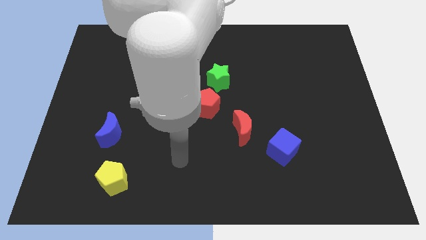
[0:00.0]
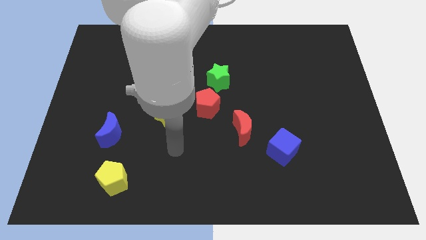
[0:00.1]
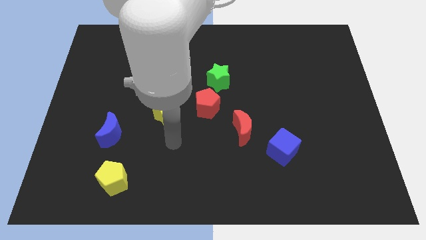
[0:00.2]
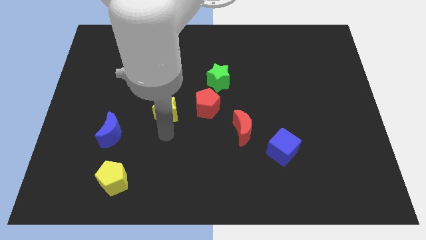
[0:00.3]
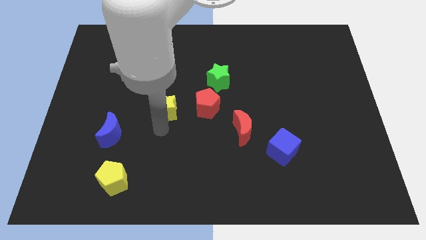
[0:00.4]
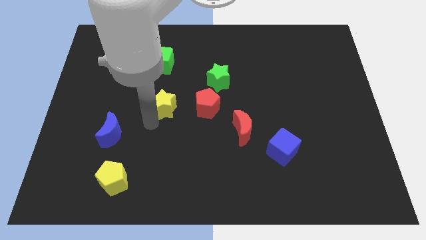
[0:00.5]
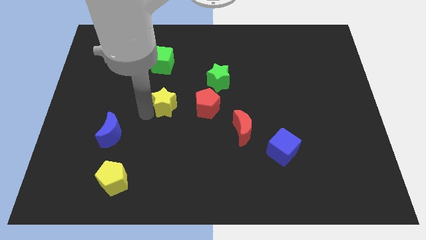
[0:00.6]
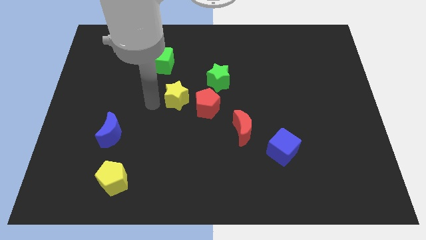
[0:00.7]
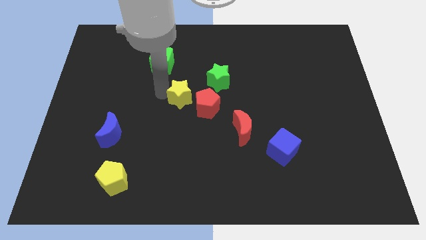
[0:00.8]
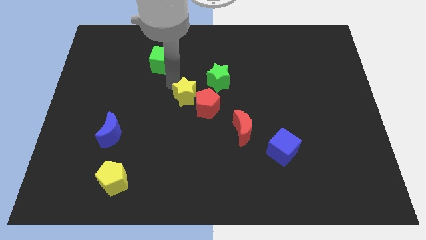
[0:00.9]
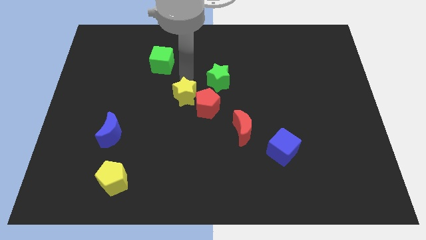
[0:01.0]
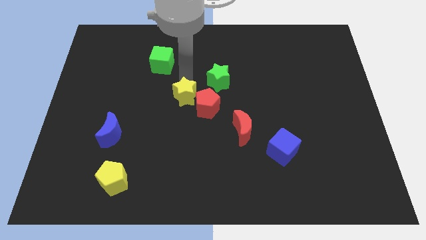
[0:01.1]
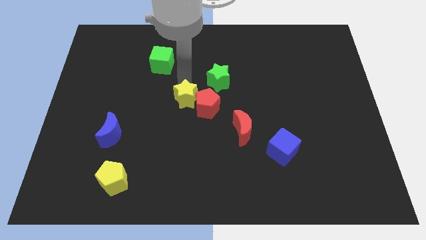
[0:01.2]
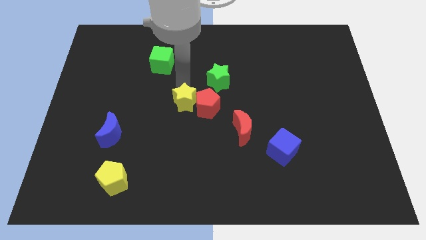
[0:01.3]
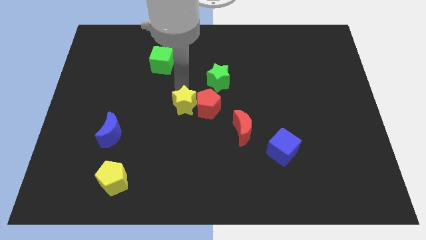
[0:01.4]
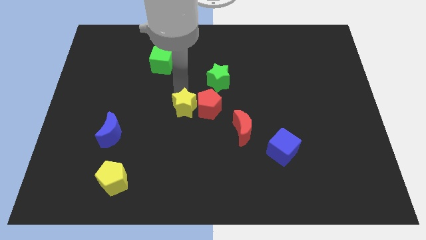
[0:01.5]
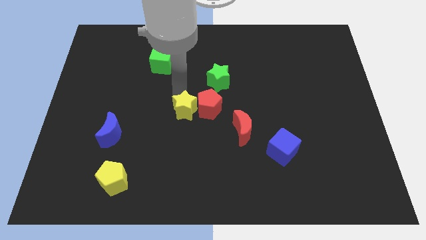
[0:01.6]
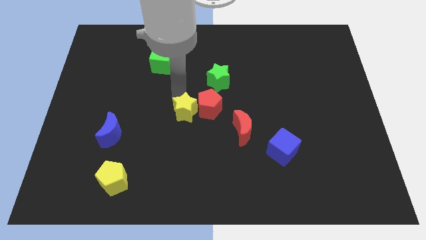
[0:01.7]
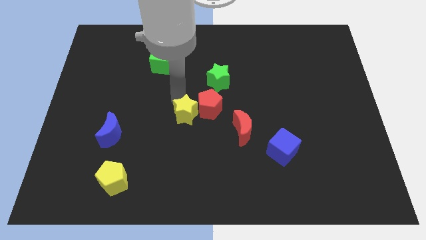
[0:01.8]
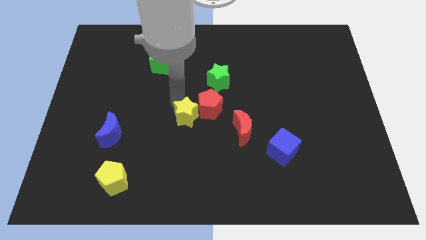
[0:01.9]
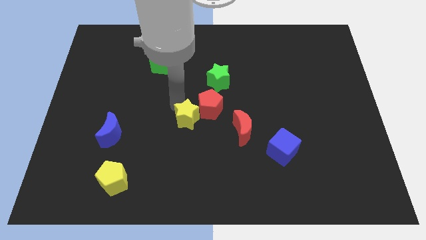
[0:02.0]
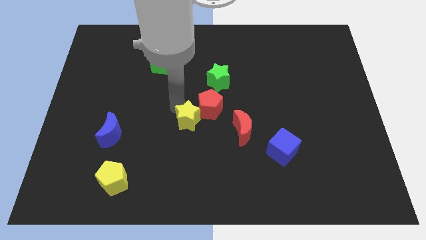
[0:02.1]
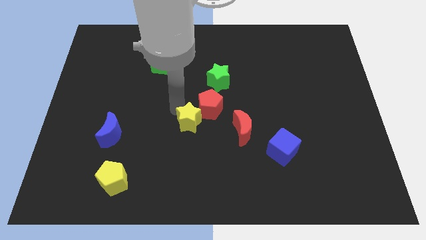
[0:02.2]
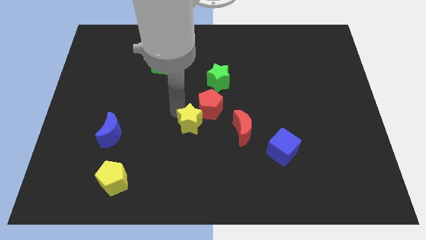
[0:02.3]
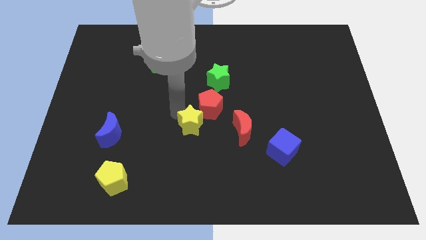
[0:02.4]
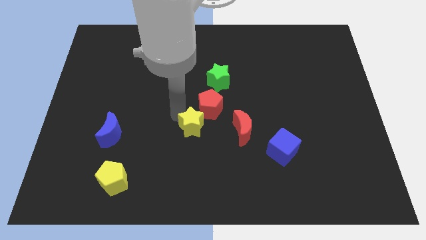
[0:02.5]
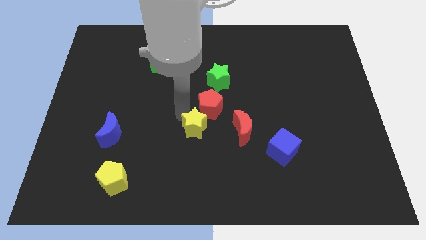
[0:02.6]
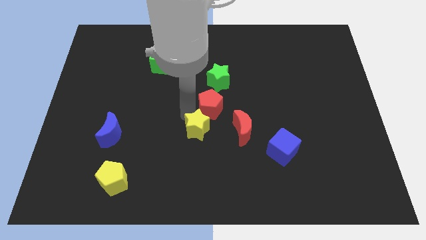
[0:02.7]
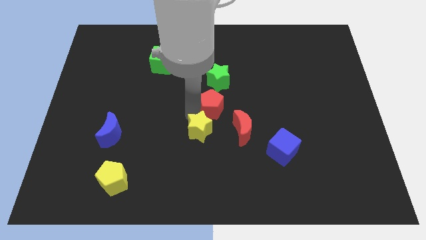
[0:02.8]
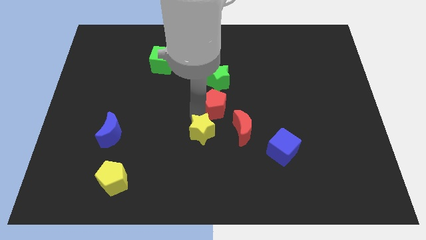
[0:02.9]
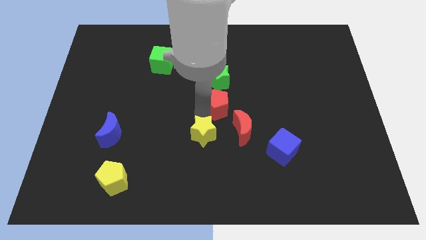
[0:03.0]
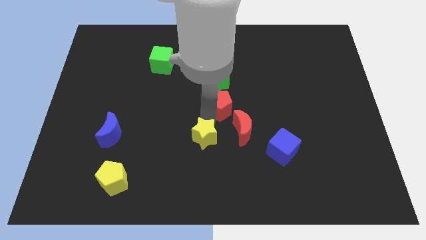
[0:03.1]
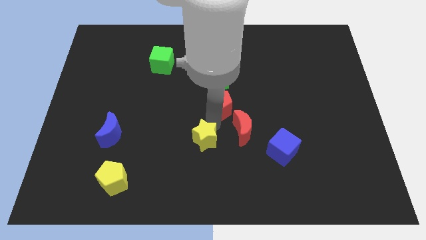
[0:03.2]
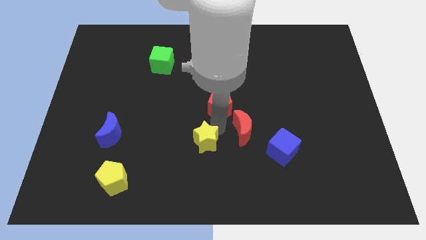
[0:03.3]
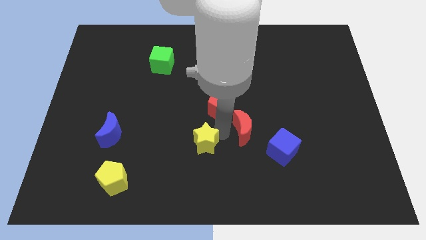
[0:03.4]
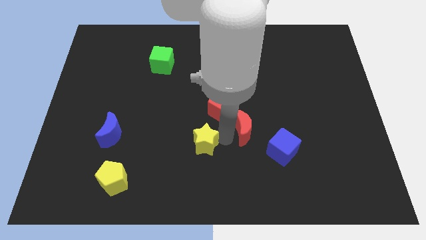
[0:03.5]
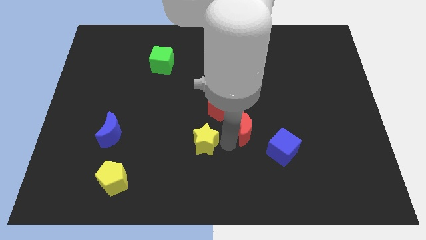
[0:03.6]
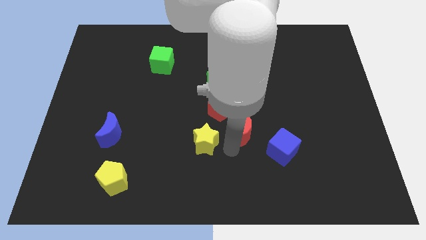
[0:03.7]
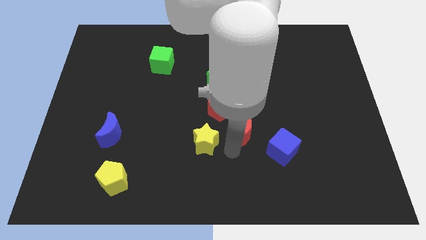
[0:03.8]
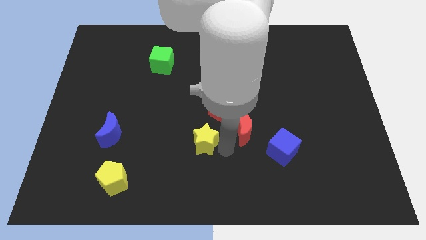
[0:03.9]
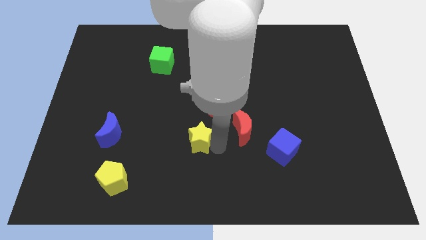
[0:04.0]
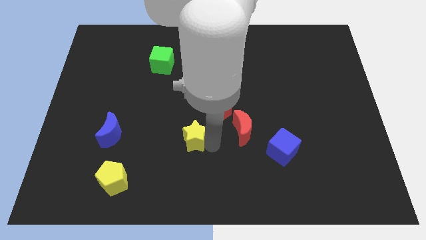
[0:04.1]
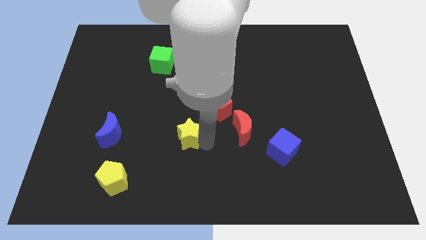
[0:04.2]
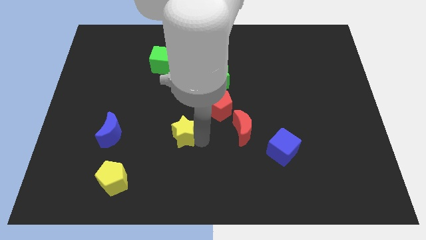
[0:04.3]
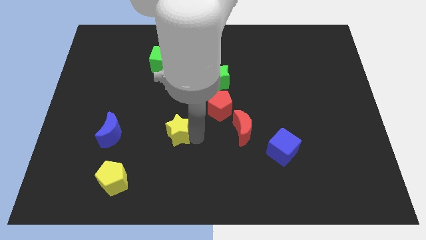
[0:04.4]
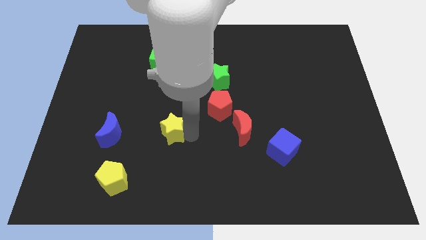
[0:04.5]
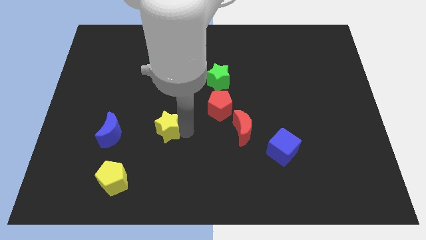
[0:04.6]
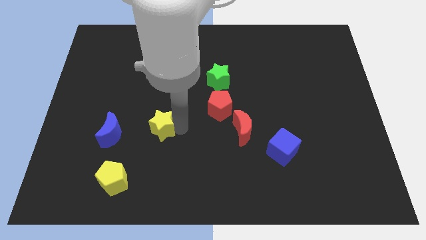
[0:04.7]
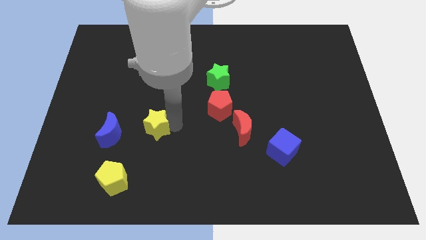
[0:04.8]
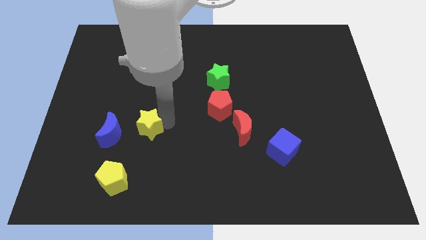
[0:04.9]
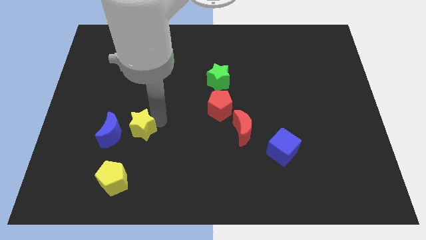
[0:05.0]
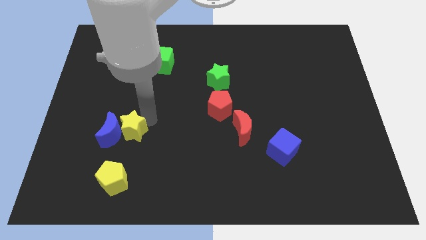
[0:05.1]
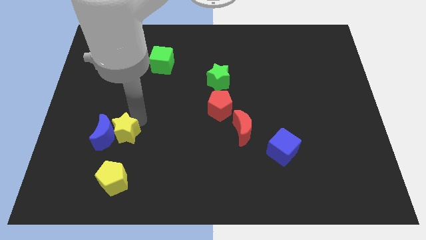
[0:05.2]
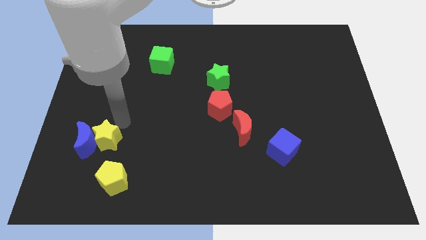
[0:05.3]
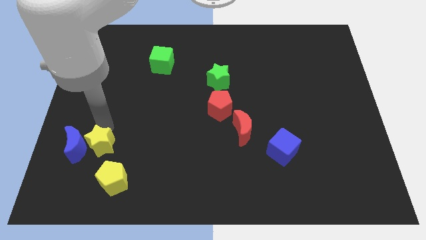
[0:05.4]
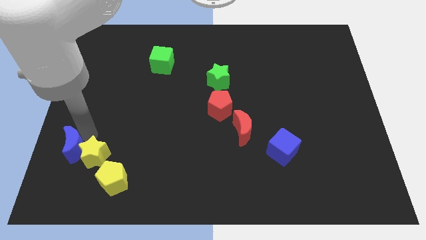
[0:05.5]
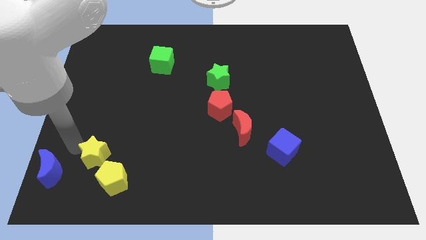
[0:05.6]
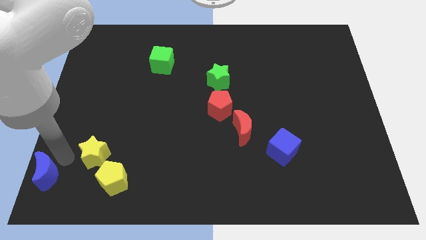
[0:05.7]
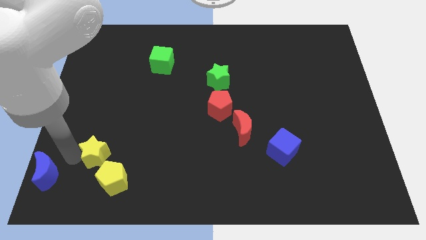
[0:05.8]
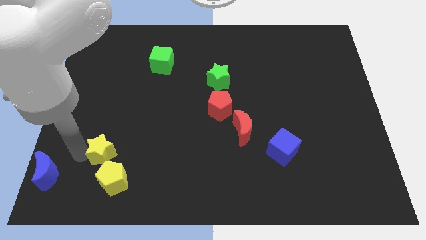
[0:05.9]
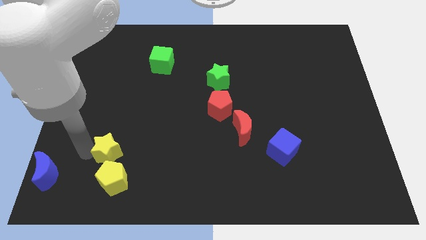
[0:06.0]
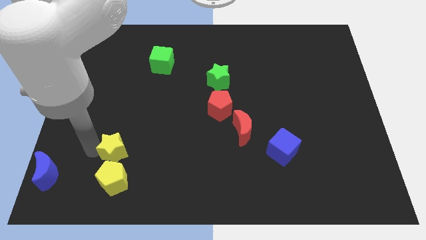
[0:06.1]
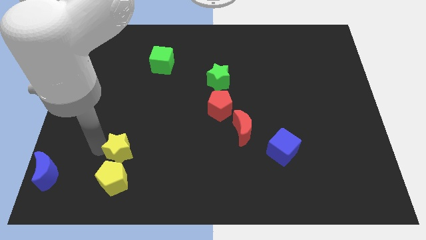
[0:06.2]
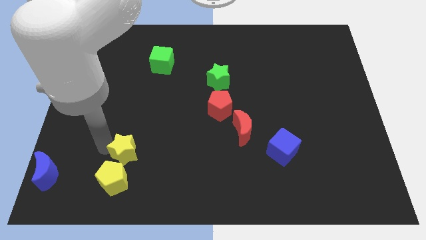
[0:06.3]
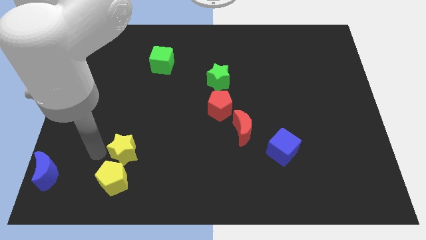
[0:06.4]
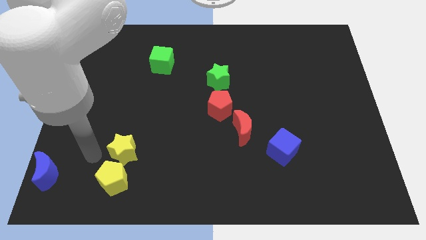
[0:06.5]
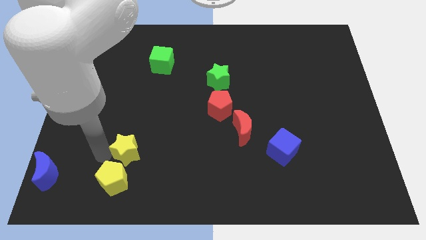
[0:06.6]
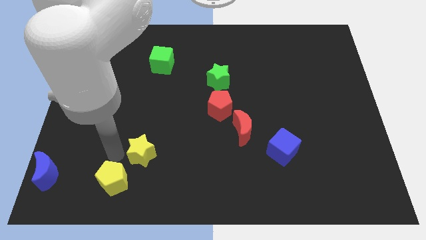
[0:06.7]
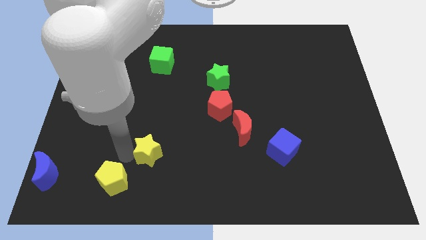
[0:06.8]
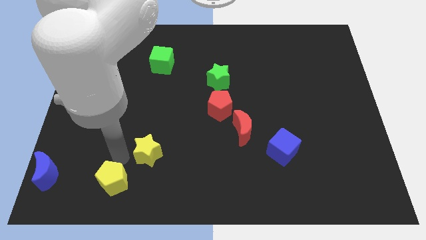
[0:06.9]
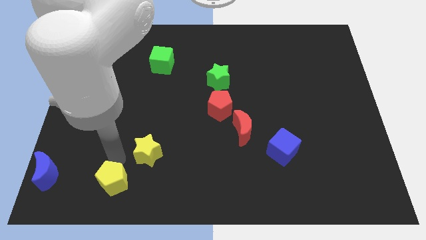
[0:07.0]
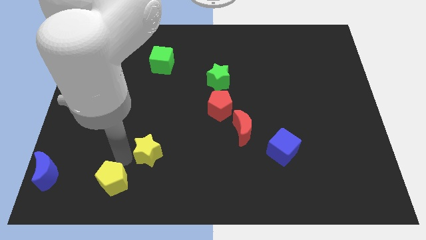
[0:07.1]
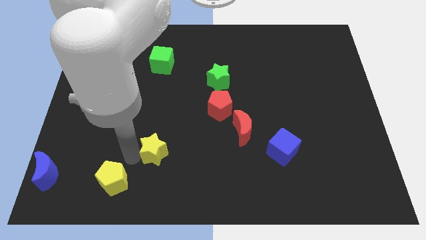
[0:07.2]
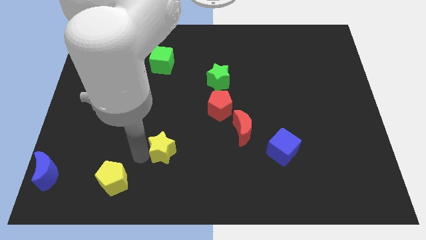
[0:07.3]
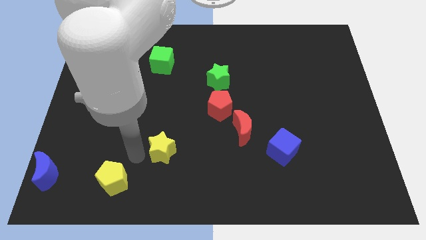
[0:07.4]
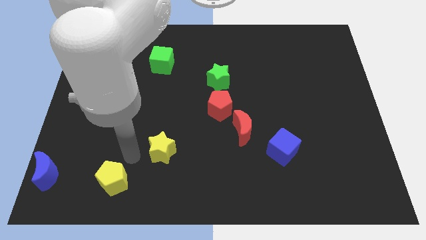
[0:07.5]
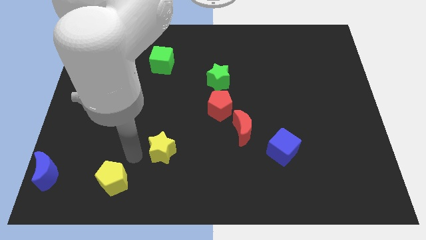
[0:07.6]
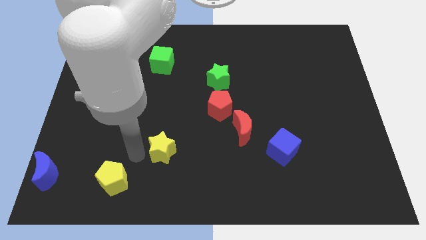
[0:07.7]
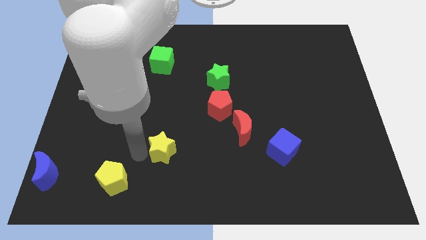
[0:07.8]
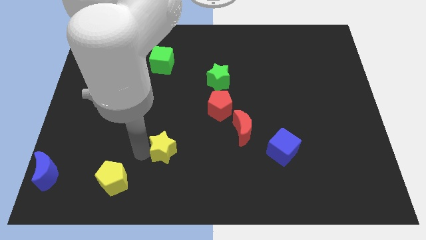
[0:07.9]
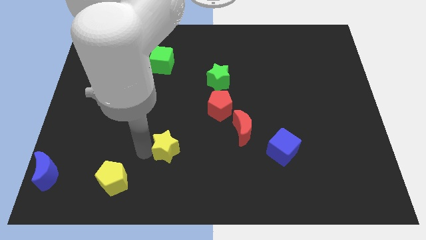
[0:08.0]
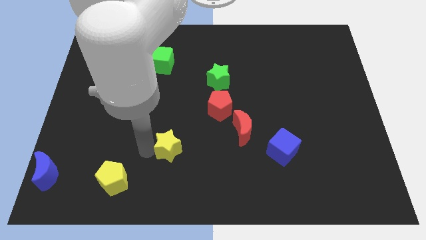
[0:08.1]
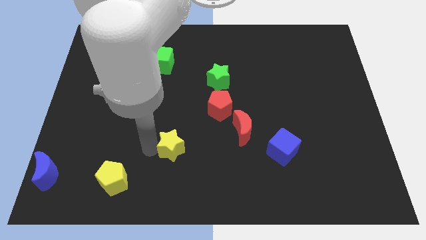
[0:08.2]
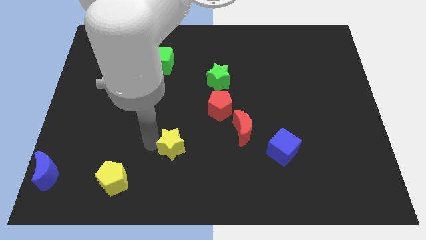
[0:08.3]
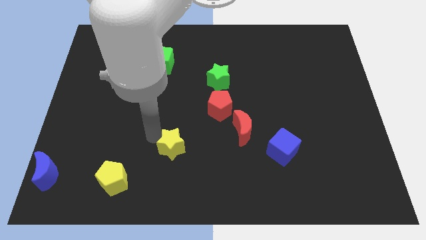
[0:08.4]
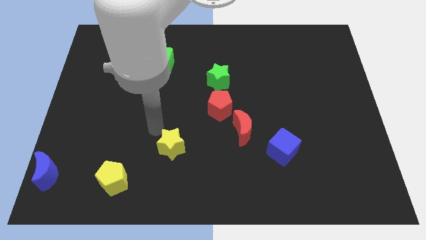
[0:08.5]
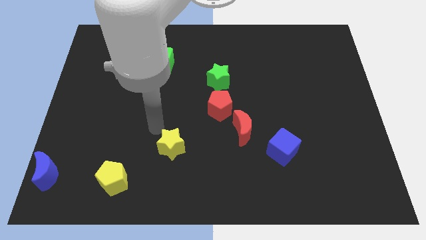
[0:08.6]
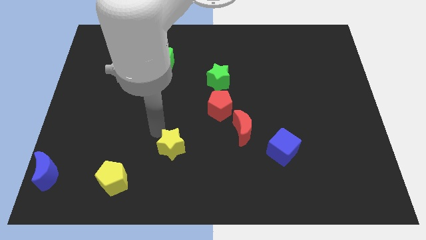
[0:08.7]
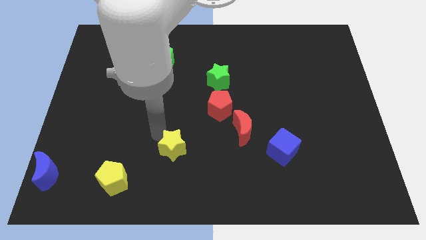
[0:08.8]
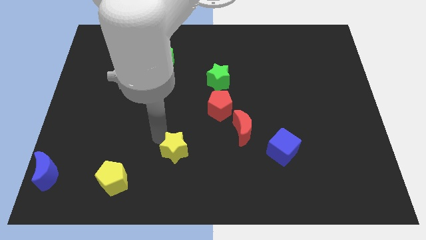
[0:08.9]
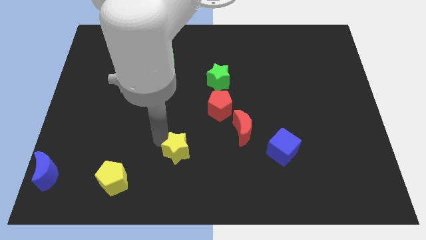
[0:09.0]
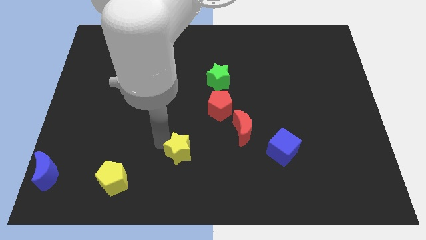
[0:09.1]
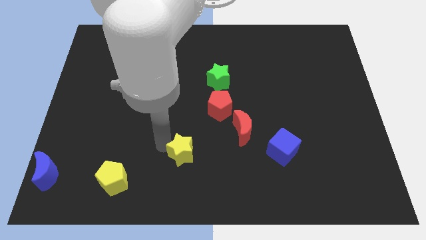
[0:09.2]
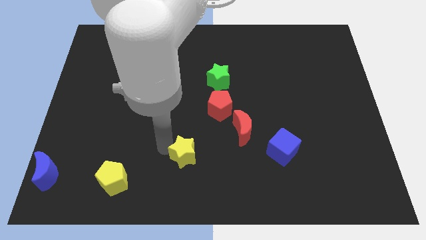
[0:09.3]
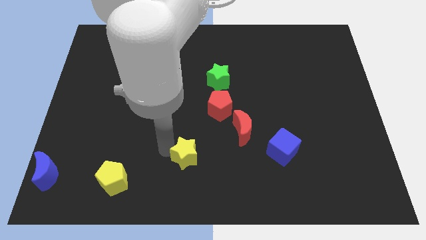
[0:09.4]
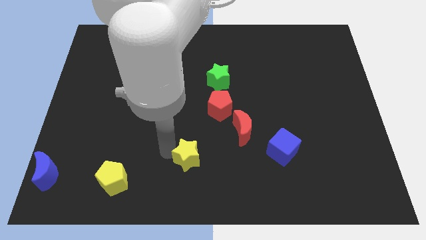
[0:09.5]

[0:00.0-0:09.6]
push the yellow star to the bottom side
